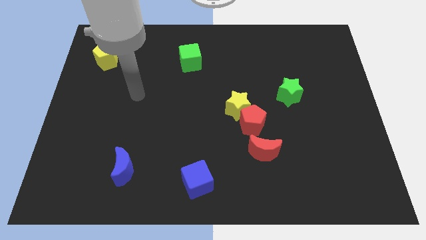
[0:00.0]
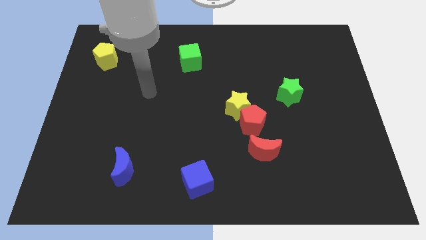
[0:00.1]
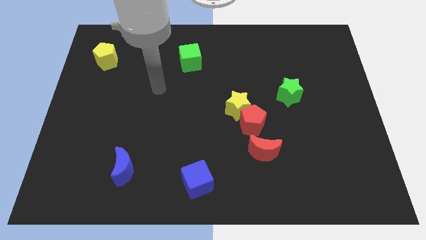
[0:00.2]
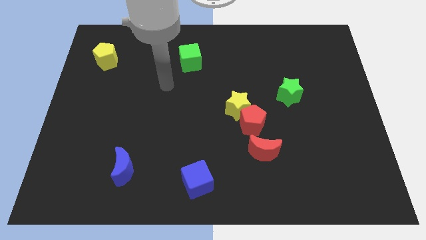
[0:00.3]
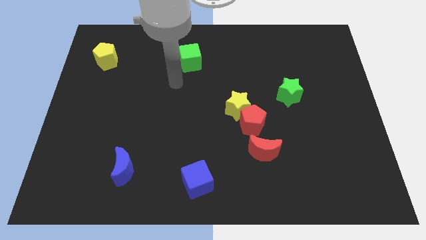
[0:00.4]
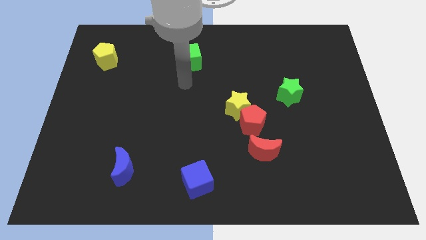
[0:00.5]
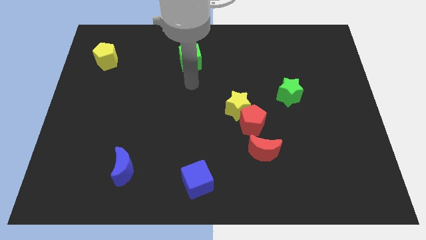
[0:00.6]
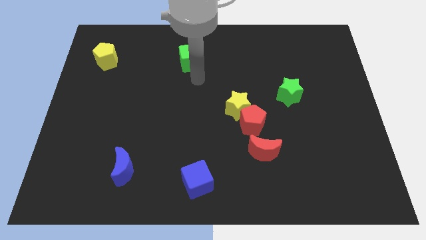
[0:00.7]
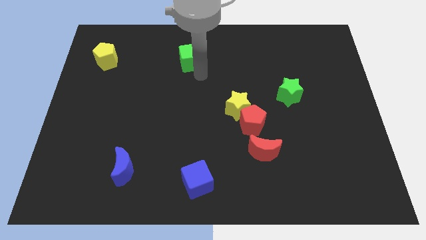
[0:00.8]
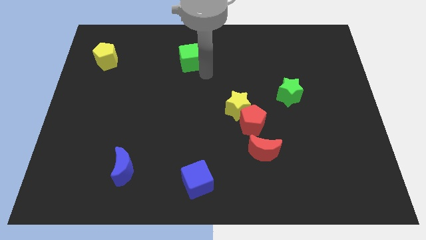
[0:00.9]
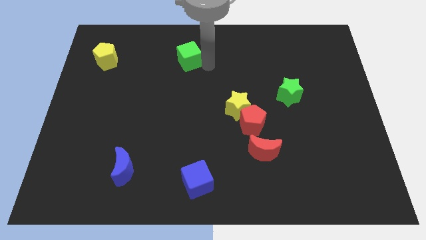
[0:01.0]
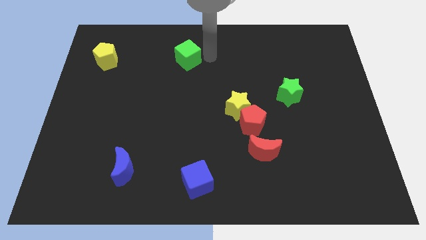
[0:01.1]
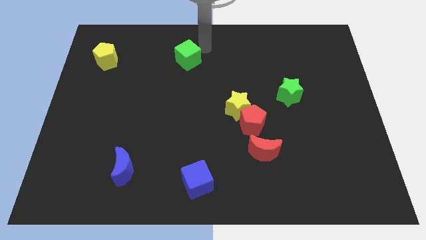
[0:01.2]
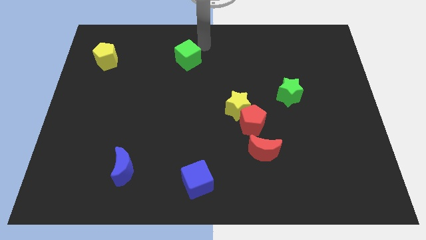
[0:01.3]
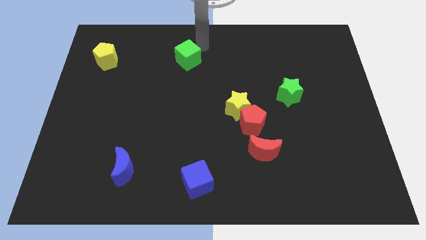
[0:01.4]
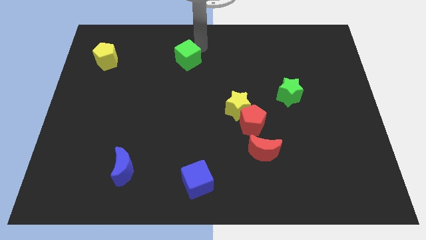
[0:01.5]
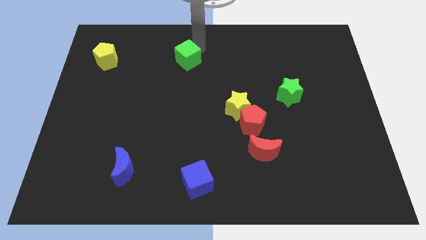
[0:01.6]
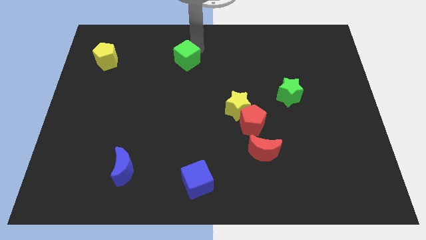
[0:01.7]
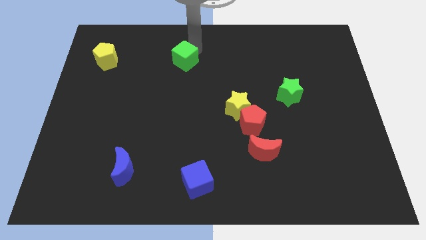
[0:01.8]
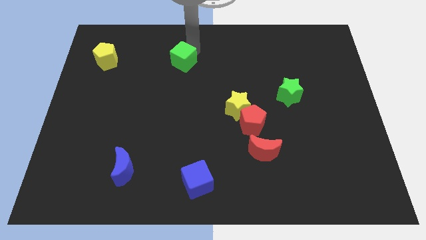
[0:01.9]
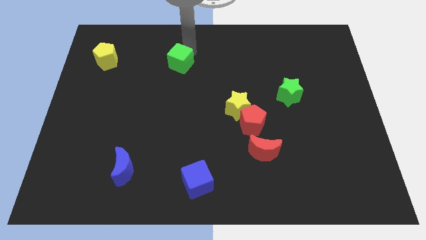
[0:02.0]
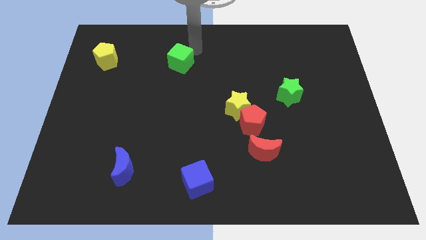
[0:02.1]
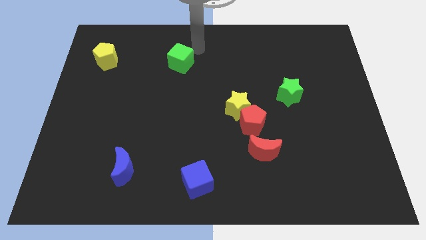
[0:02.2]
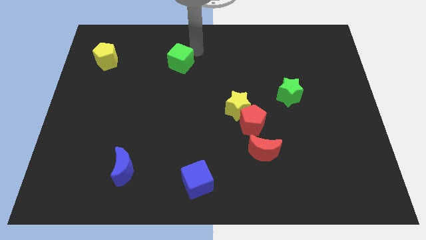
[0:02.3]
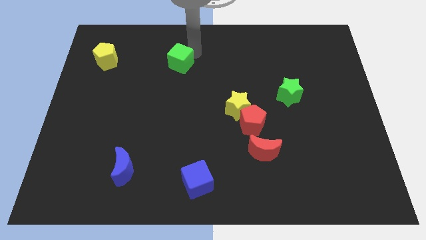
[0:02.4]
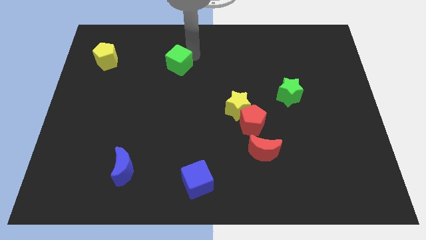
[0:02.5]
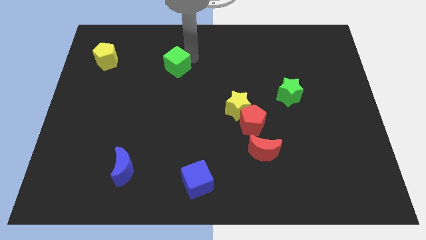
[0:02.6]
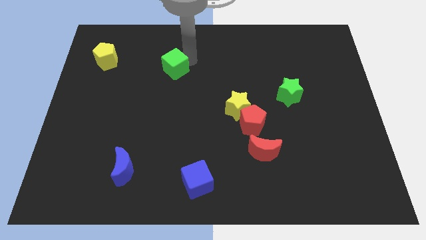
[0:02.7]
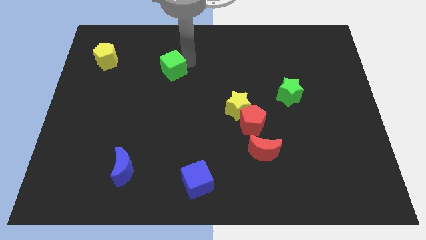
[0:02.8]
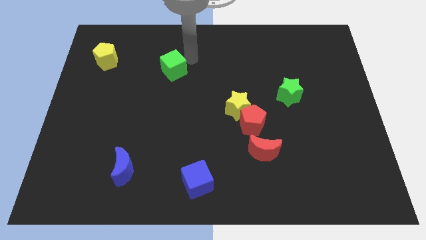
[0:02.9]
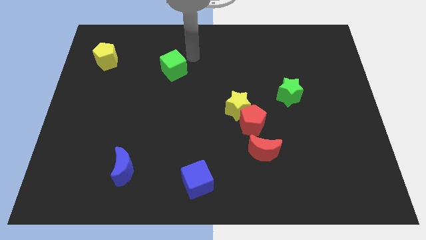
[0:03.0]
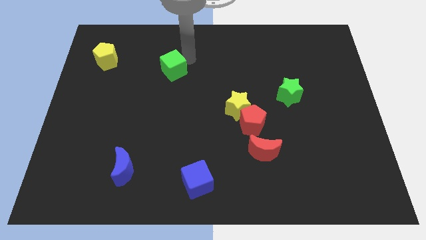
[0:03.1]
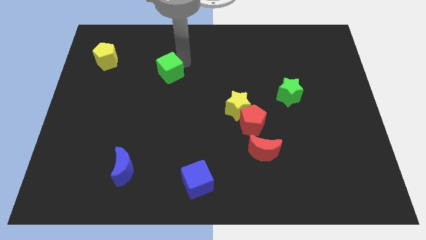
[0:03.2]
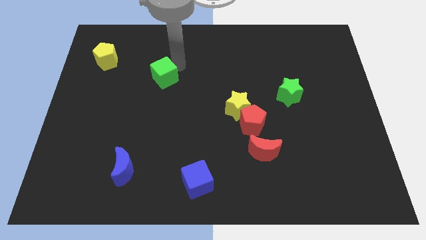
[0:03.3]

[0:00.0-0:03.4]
push the green cube down and to the left diagonally a little

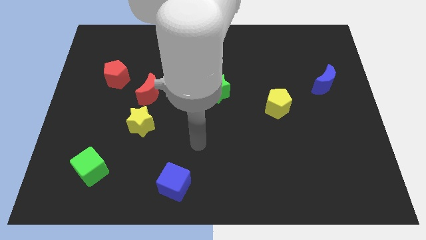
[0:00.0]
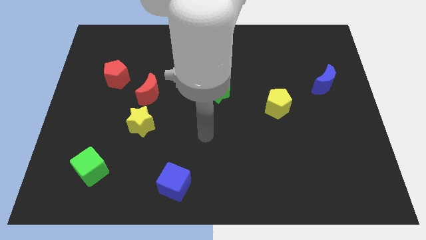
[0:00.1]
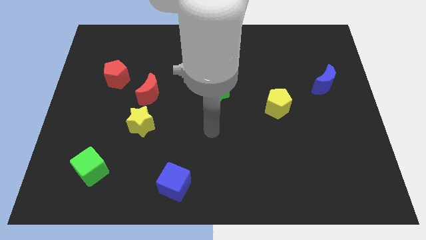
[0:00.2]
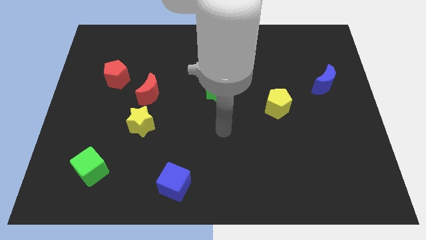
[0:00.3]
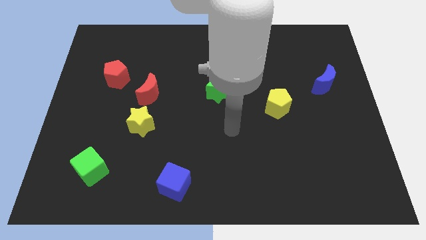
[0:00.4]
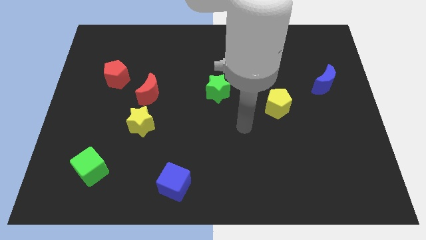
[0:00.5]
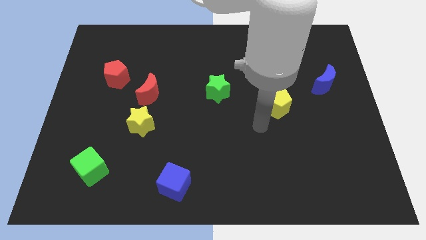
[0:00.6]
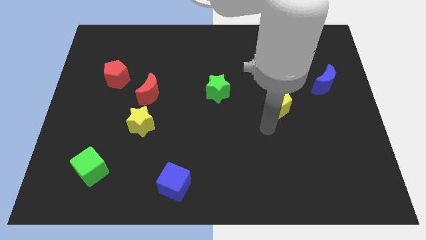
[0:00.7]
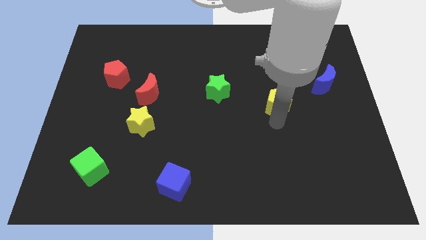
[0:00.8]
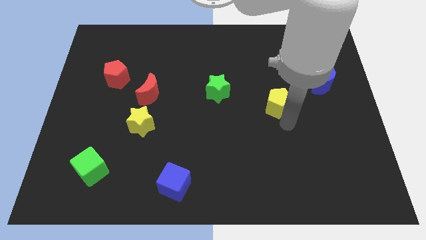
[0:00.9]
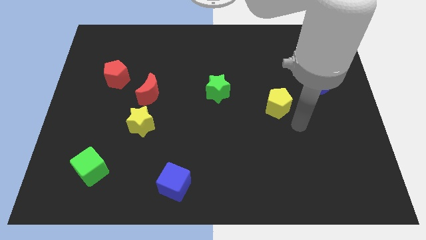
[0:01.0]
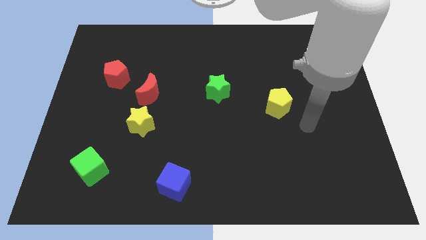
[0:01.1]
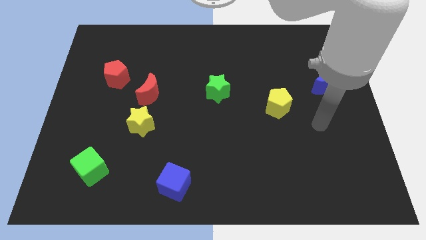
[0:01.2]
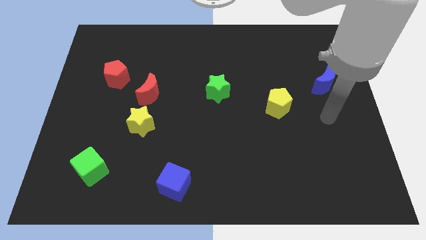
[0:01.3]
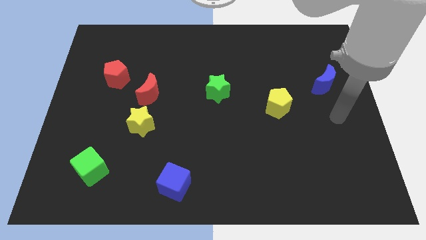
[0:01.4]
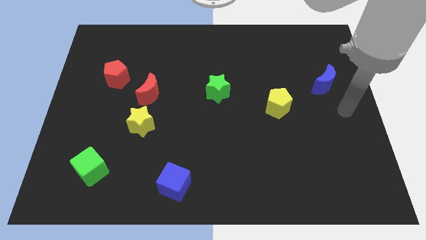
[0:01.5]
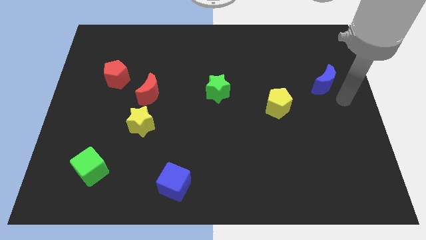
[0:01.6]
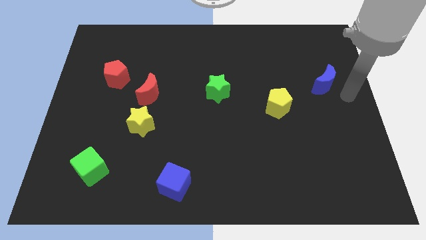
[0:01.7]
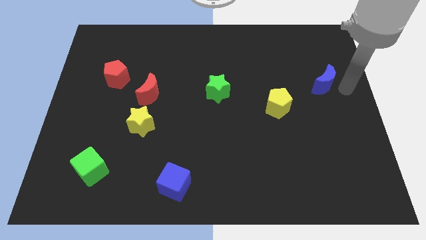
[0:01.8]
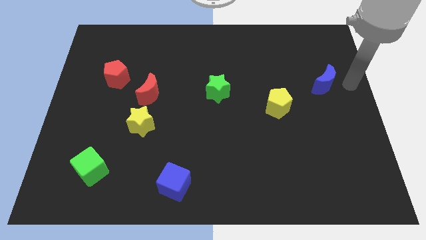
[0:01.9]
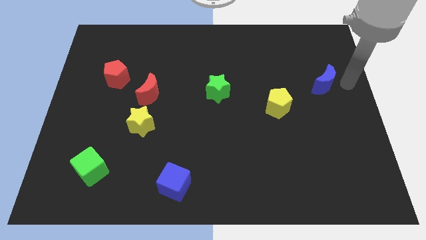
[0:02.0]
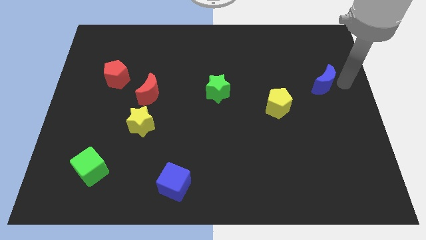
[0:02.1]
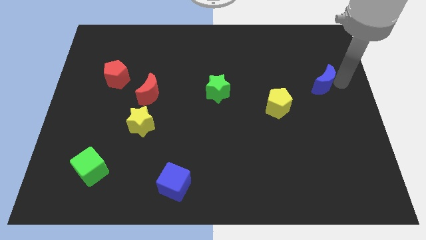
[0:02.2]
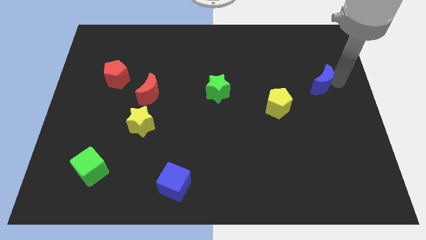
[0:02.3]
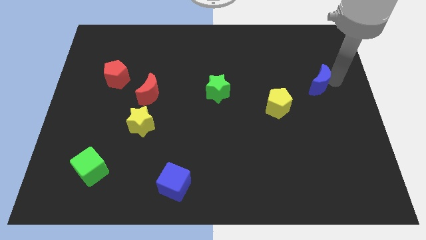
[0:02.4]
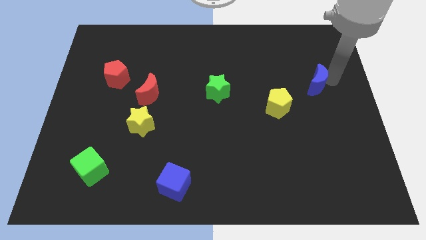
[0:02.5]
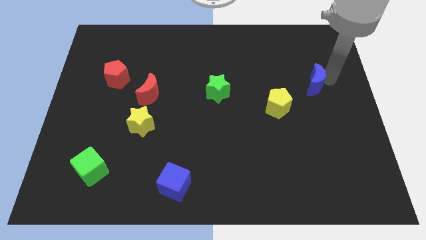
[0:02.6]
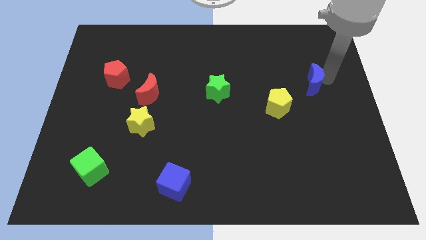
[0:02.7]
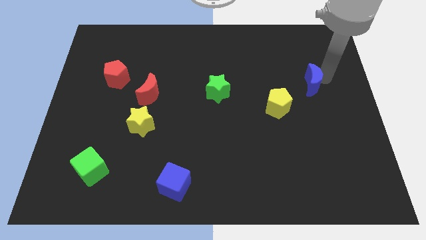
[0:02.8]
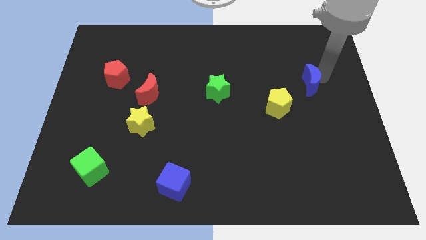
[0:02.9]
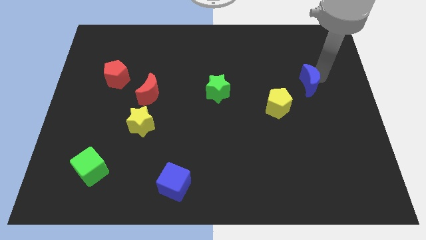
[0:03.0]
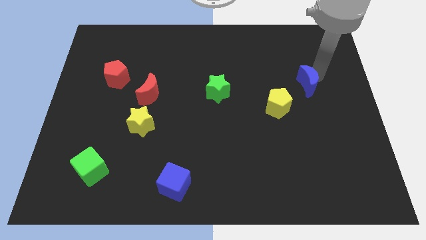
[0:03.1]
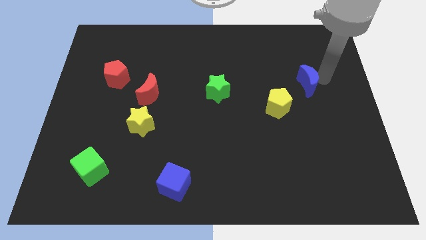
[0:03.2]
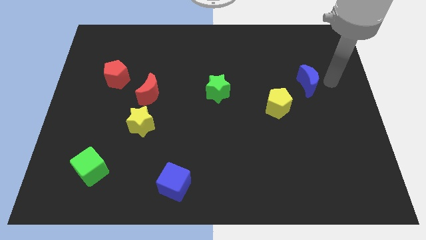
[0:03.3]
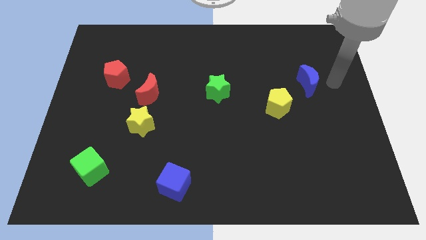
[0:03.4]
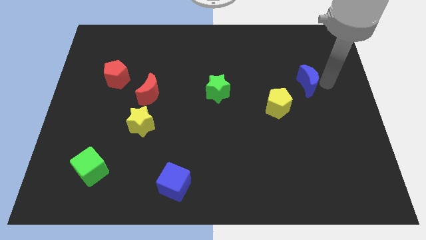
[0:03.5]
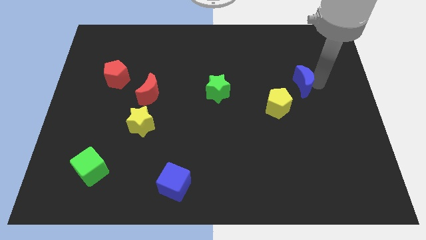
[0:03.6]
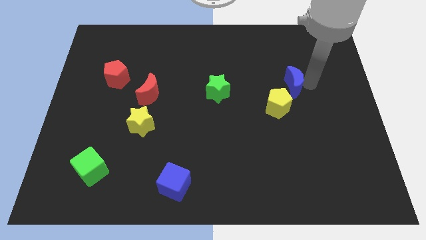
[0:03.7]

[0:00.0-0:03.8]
move the blue moon somewhat to the left

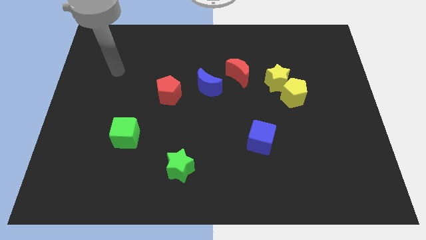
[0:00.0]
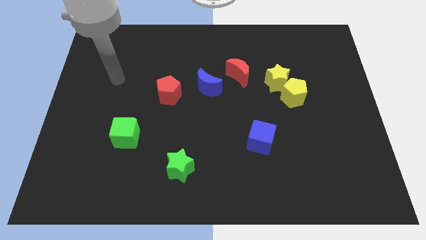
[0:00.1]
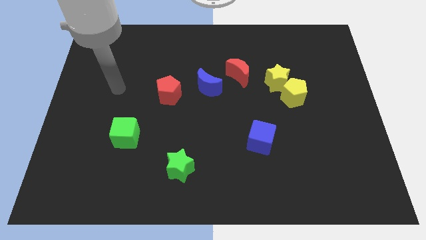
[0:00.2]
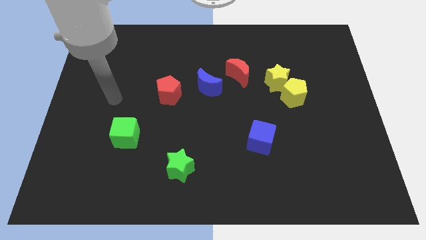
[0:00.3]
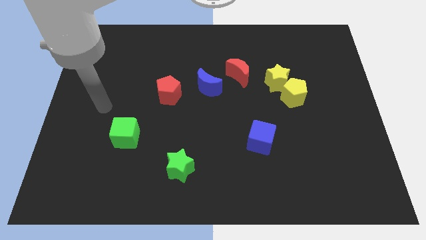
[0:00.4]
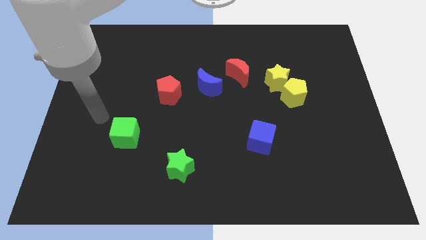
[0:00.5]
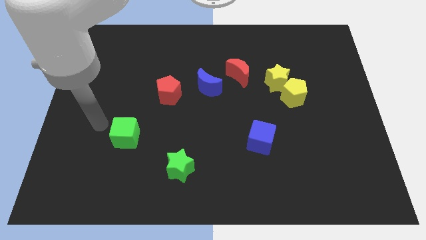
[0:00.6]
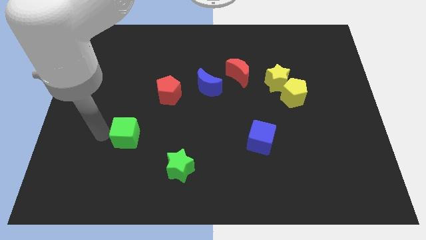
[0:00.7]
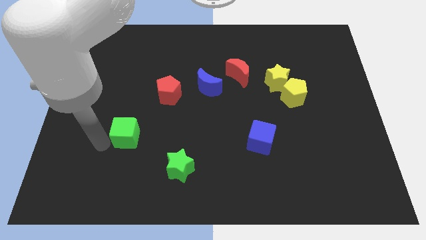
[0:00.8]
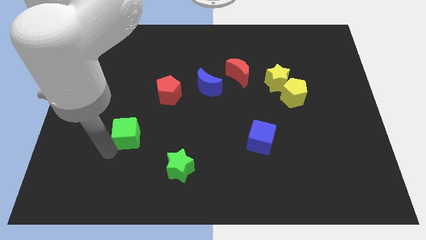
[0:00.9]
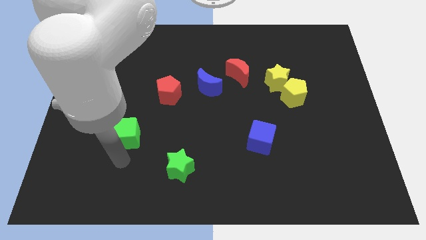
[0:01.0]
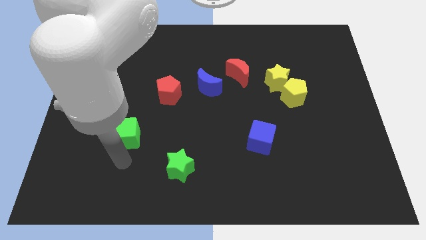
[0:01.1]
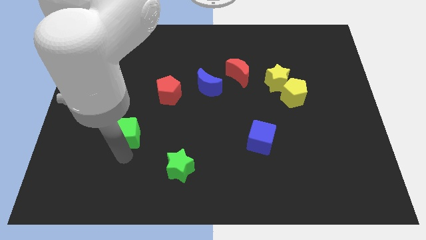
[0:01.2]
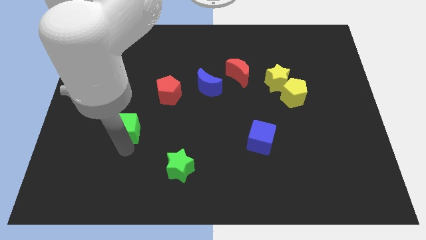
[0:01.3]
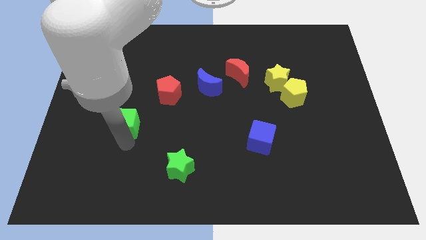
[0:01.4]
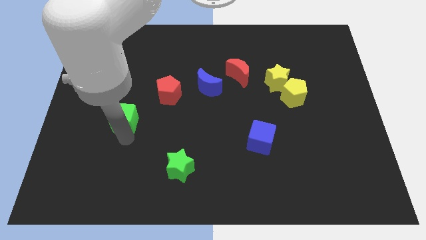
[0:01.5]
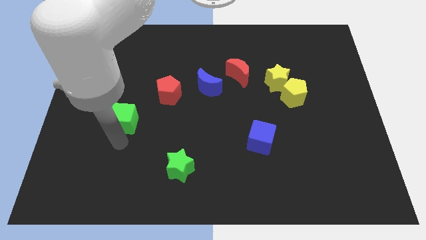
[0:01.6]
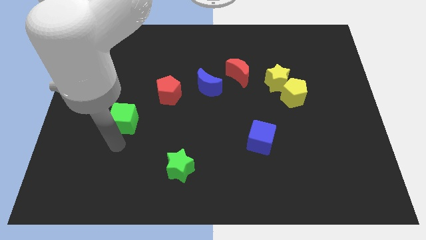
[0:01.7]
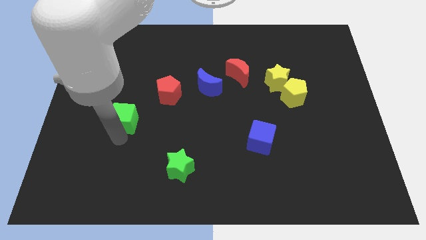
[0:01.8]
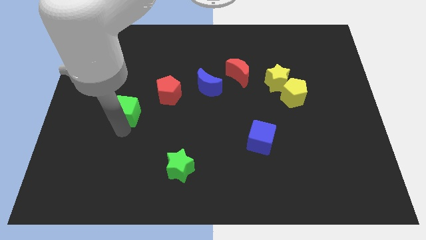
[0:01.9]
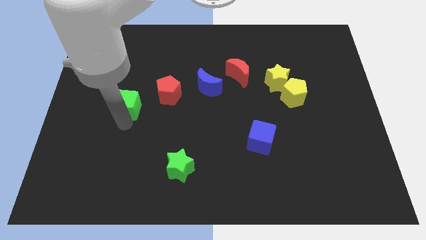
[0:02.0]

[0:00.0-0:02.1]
slide the green cube a little bit up
